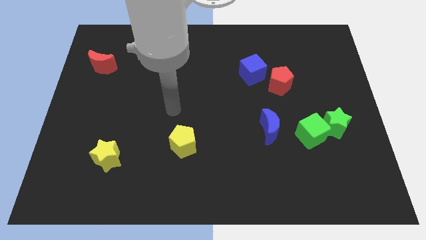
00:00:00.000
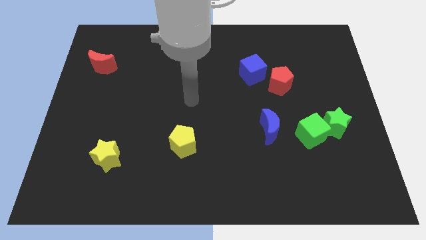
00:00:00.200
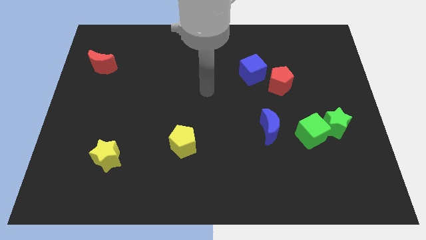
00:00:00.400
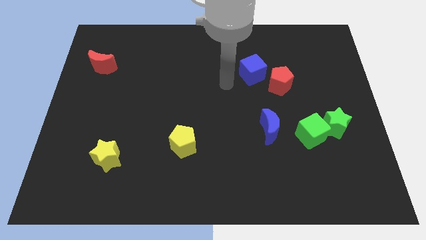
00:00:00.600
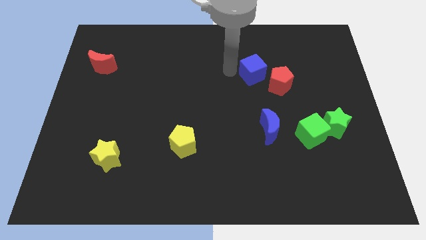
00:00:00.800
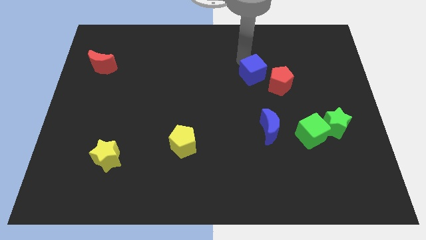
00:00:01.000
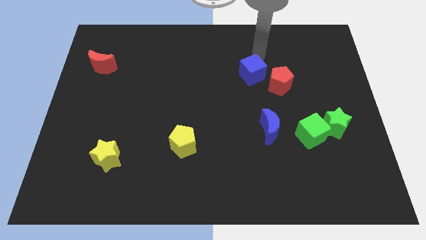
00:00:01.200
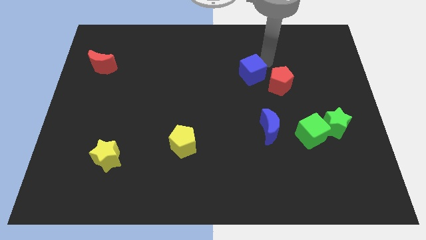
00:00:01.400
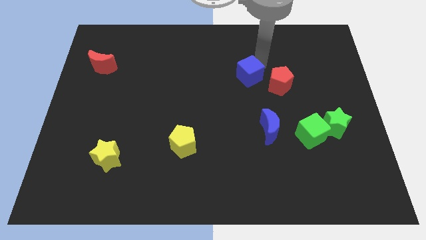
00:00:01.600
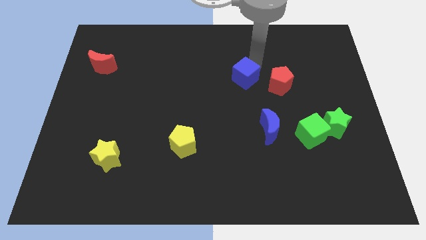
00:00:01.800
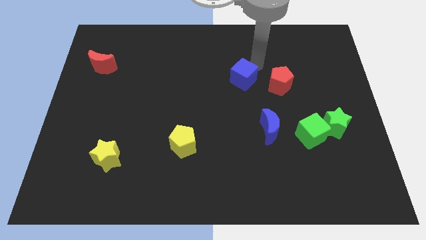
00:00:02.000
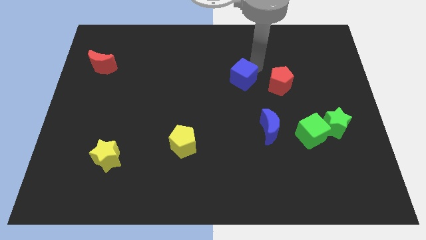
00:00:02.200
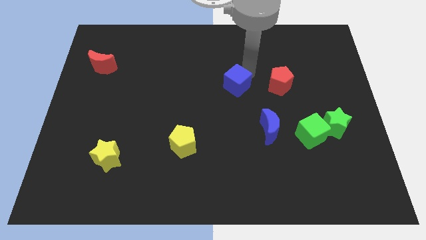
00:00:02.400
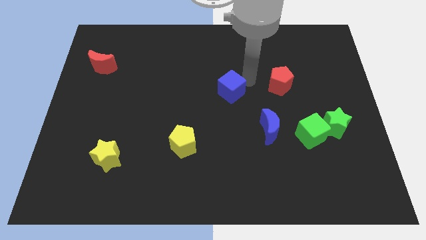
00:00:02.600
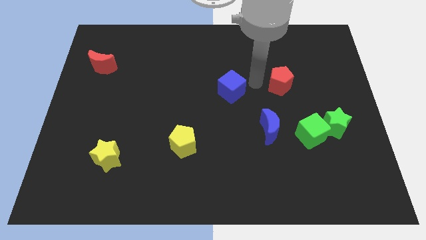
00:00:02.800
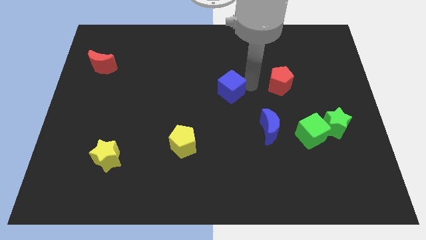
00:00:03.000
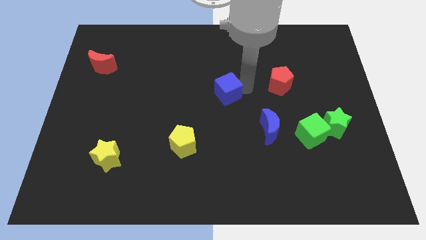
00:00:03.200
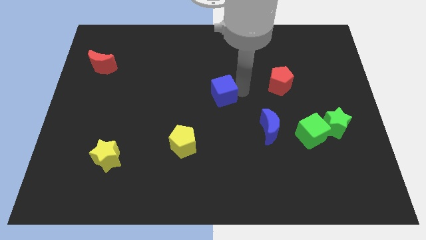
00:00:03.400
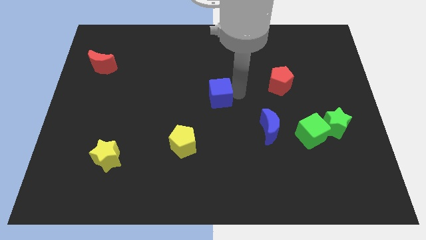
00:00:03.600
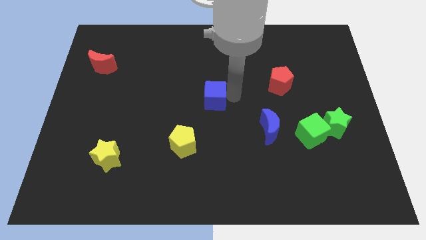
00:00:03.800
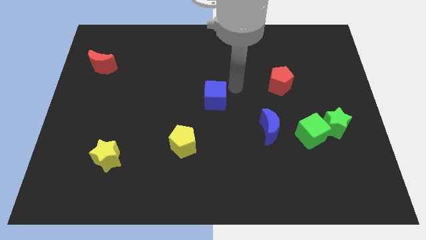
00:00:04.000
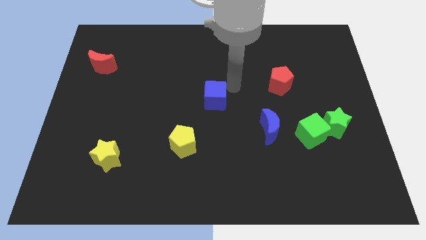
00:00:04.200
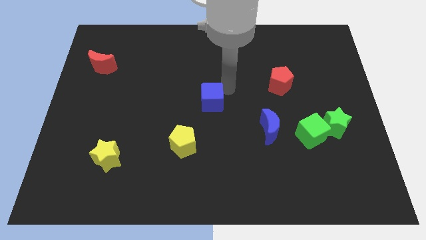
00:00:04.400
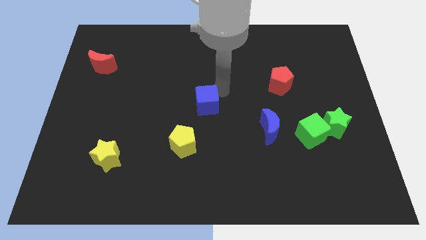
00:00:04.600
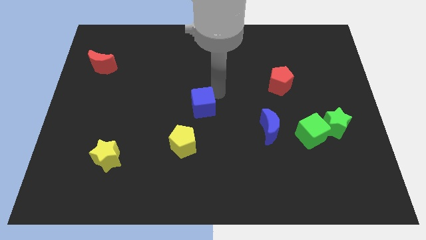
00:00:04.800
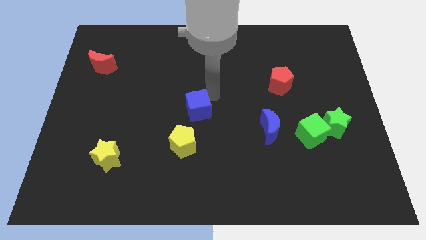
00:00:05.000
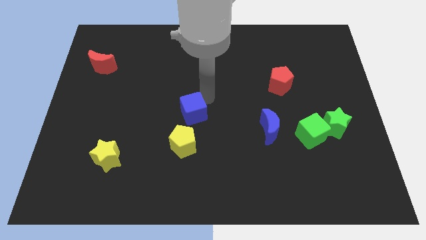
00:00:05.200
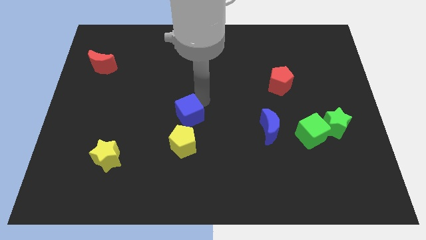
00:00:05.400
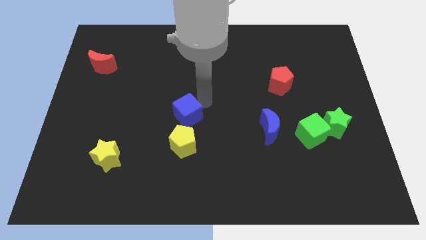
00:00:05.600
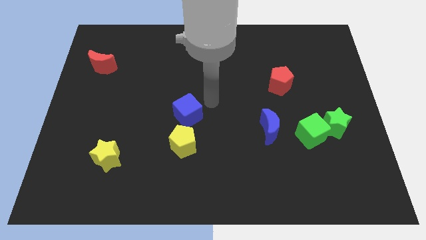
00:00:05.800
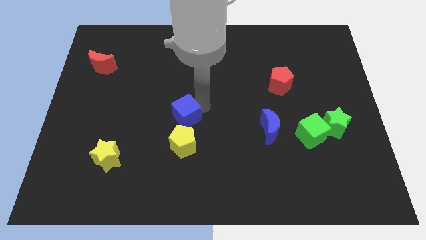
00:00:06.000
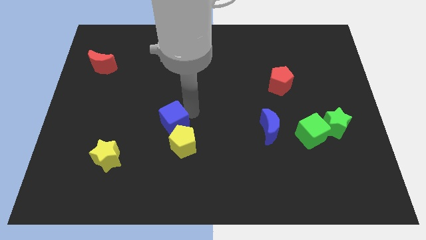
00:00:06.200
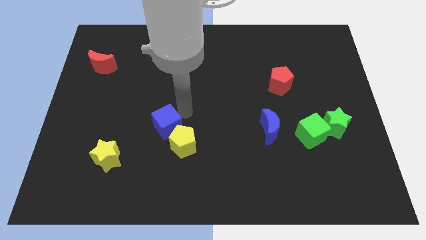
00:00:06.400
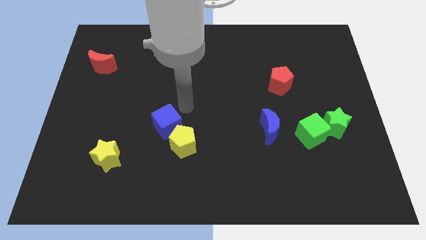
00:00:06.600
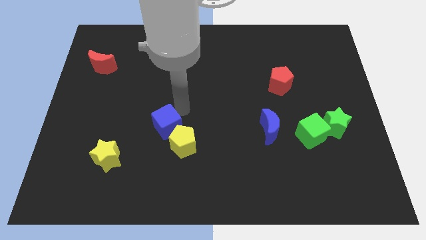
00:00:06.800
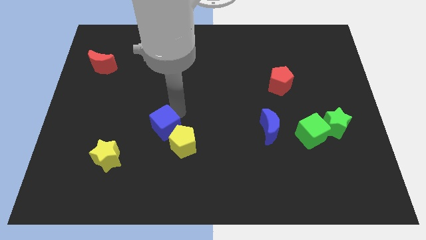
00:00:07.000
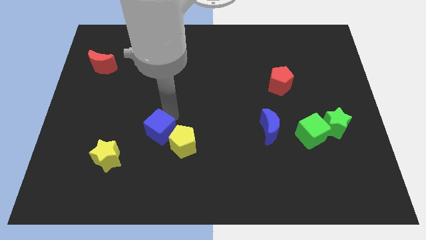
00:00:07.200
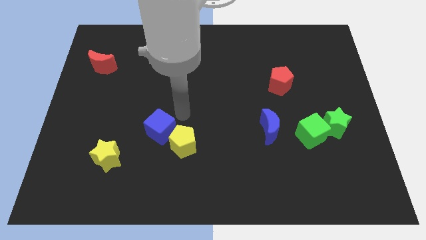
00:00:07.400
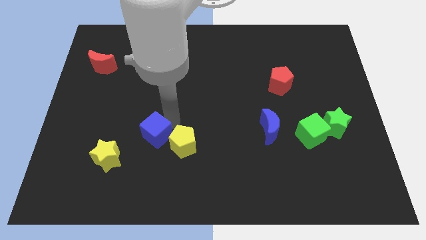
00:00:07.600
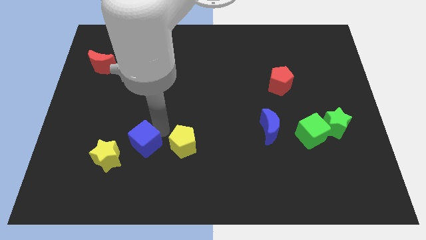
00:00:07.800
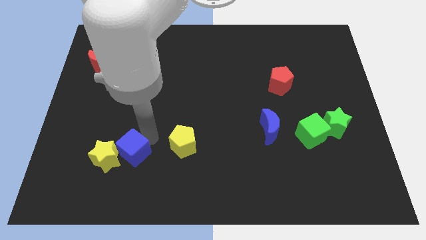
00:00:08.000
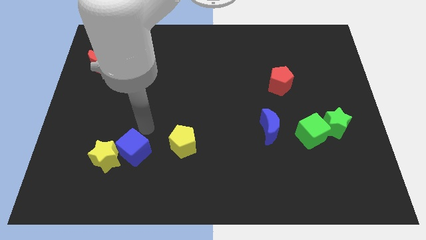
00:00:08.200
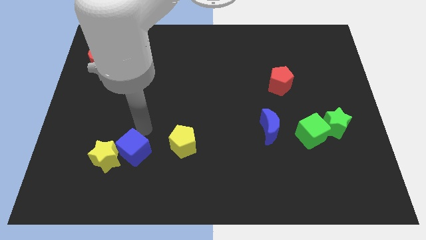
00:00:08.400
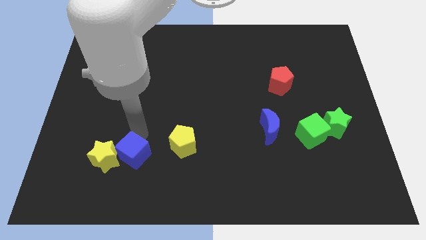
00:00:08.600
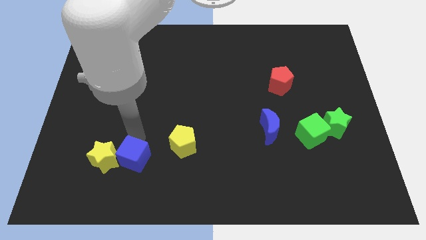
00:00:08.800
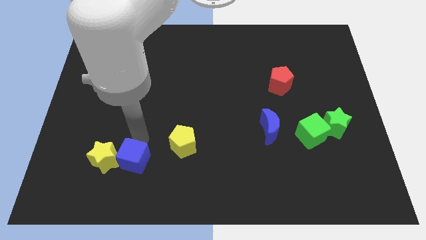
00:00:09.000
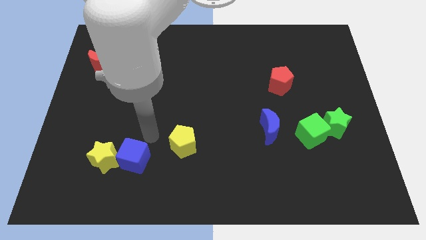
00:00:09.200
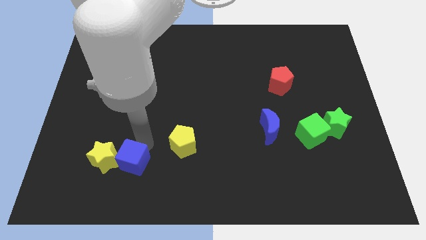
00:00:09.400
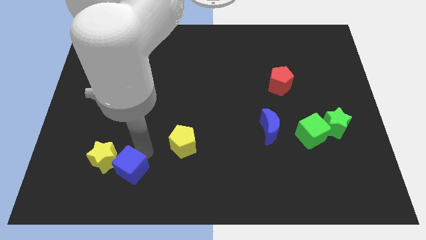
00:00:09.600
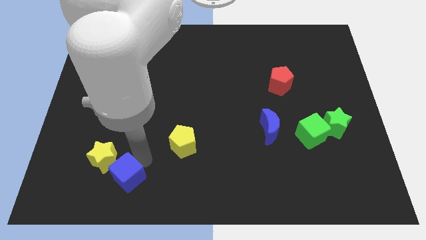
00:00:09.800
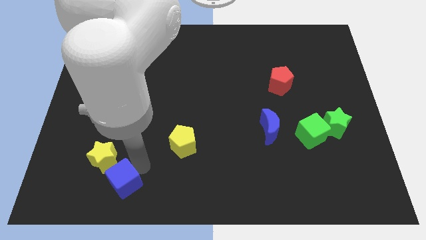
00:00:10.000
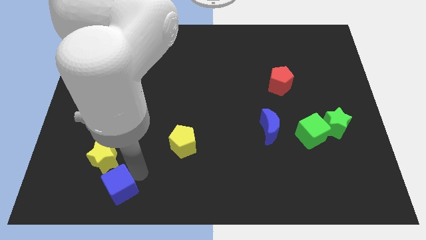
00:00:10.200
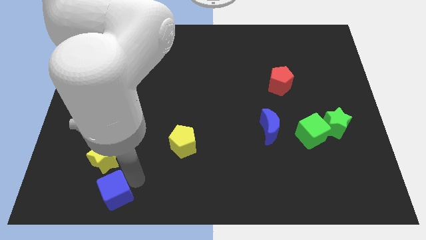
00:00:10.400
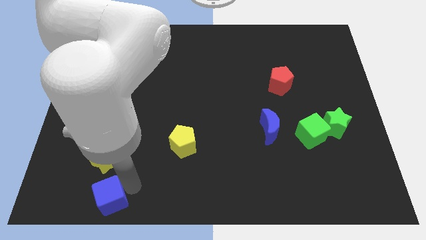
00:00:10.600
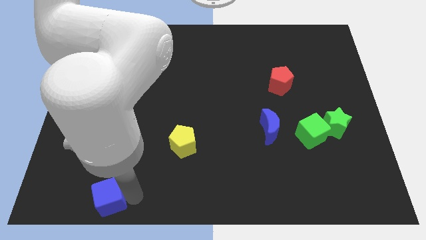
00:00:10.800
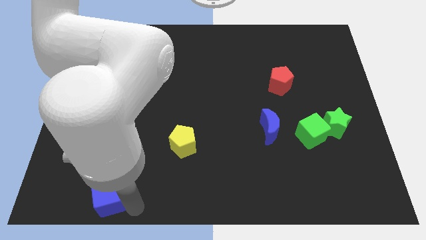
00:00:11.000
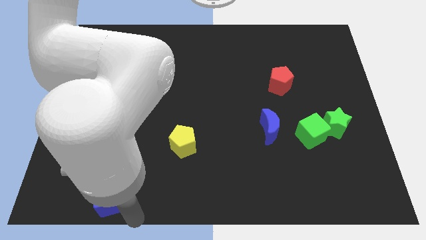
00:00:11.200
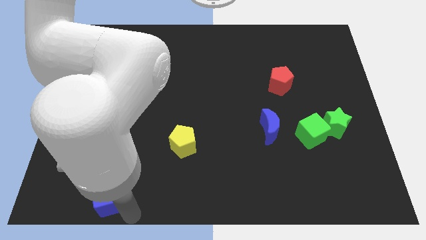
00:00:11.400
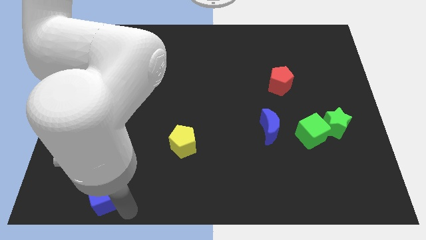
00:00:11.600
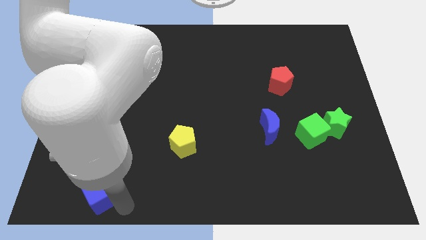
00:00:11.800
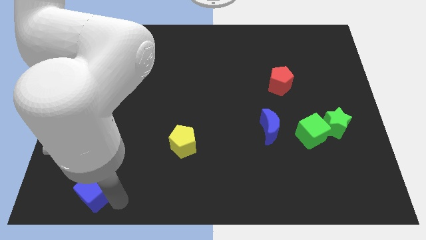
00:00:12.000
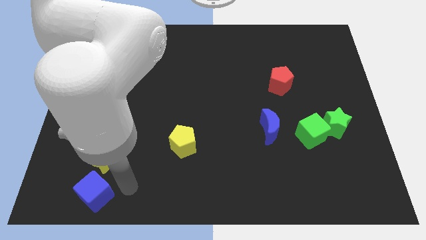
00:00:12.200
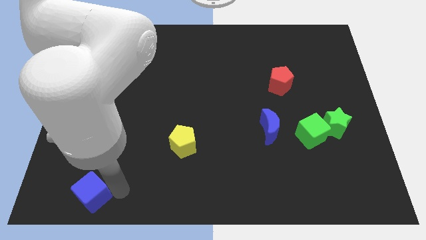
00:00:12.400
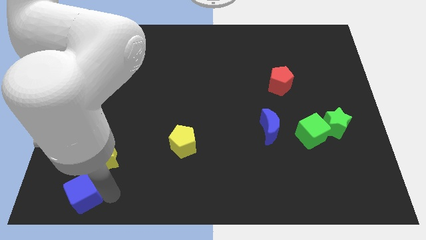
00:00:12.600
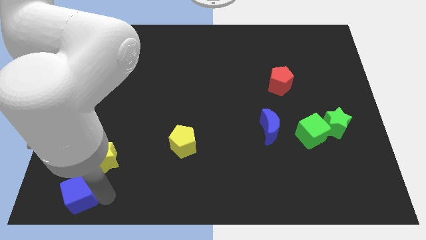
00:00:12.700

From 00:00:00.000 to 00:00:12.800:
push the blue cube to the bottom left
